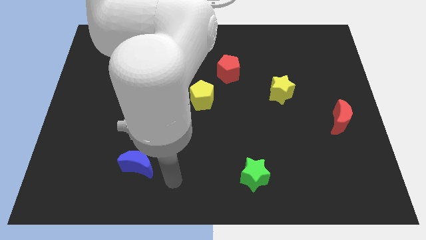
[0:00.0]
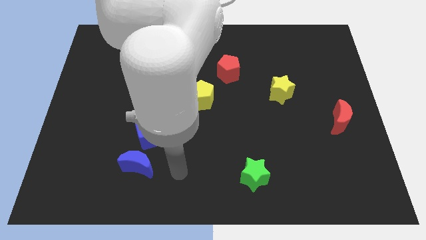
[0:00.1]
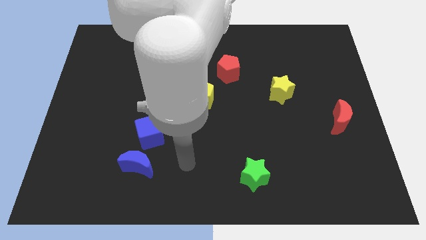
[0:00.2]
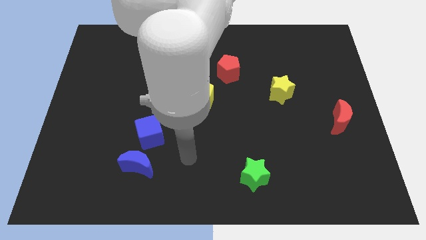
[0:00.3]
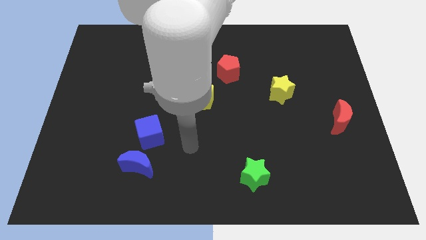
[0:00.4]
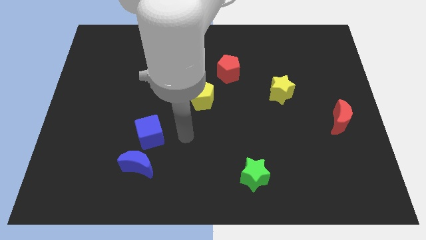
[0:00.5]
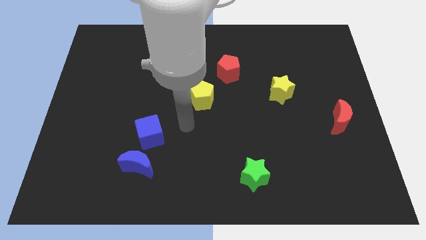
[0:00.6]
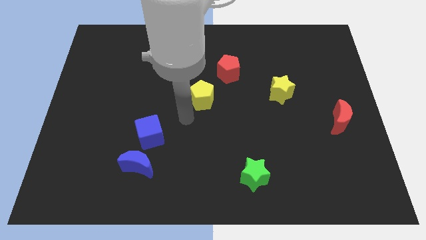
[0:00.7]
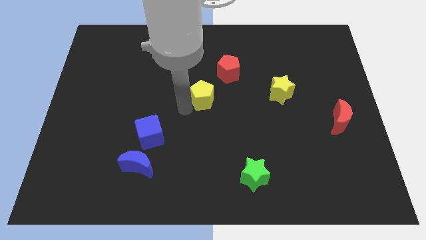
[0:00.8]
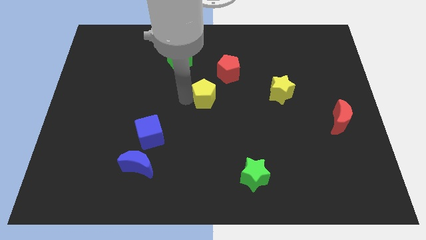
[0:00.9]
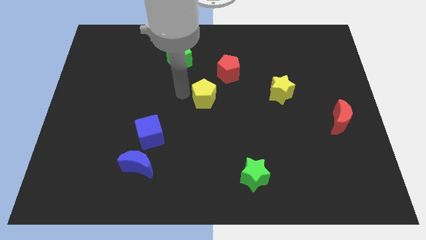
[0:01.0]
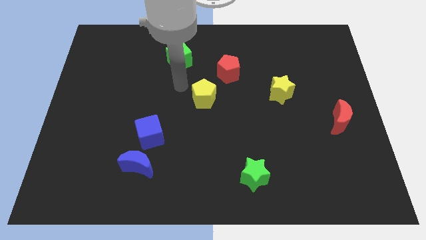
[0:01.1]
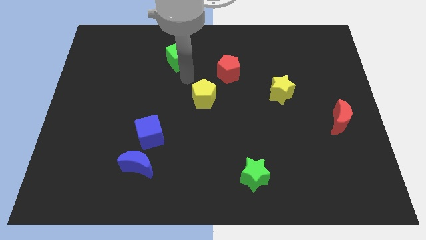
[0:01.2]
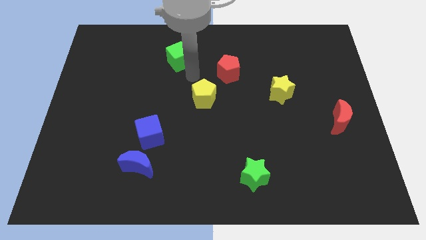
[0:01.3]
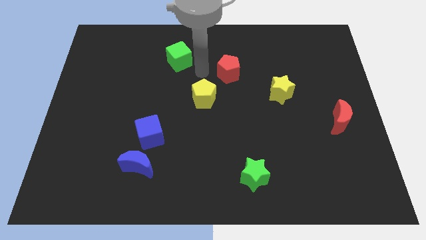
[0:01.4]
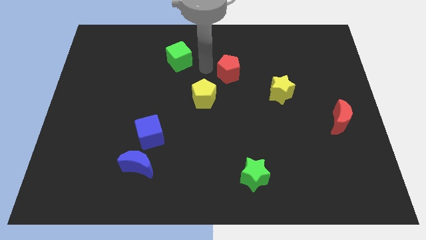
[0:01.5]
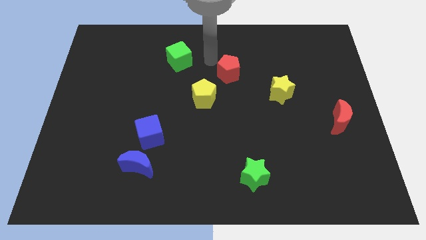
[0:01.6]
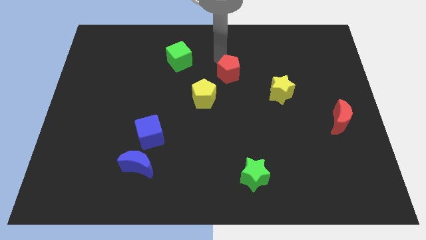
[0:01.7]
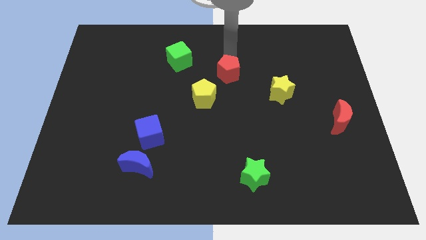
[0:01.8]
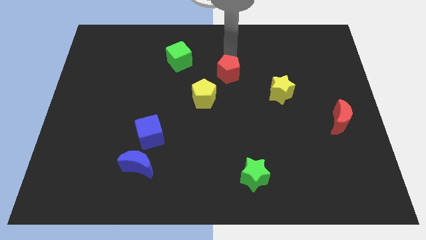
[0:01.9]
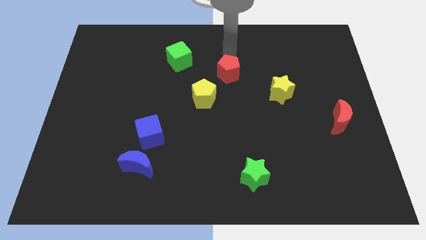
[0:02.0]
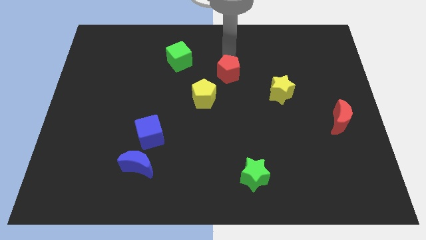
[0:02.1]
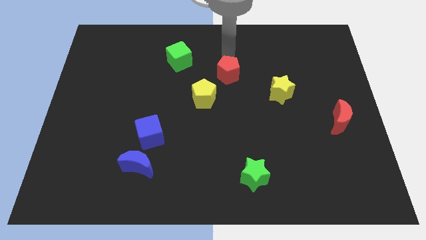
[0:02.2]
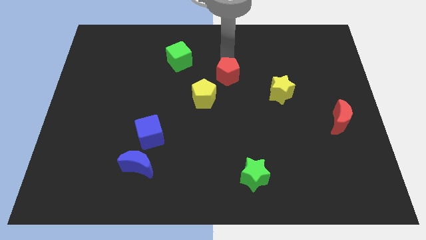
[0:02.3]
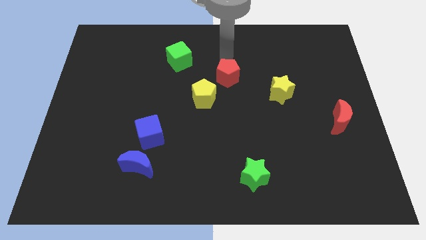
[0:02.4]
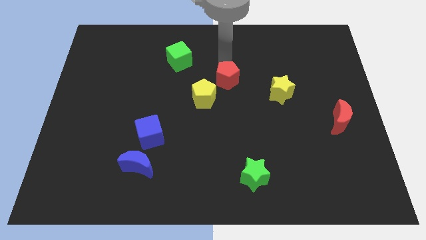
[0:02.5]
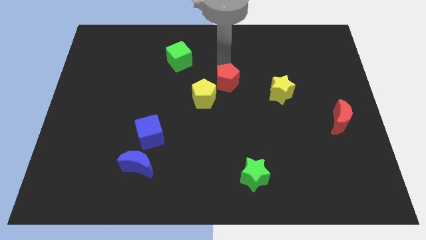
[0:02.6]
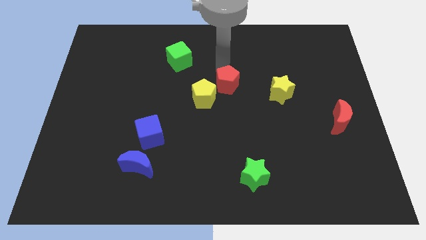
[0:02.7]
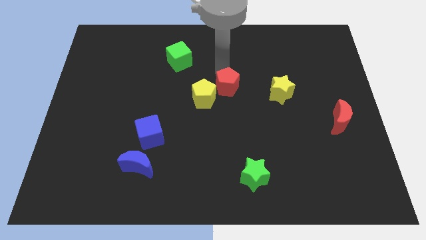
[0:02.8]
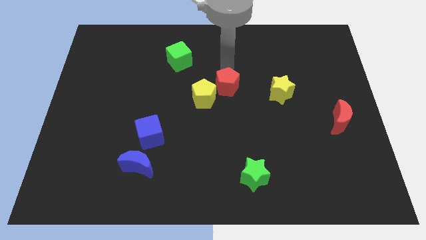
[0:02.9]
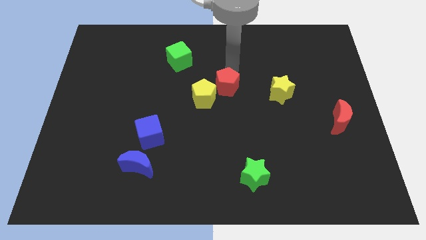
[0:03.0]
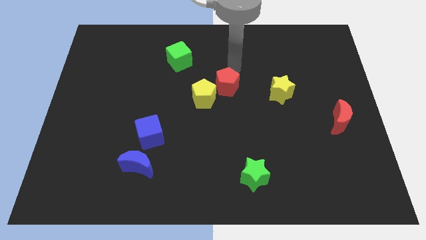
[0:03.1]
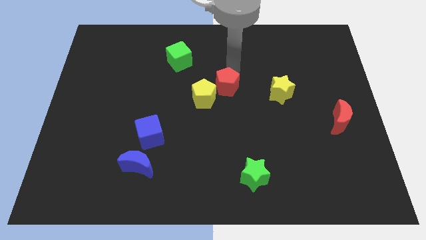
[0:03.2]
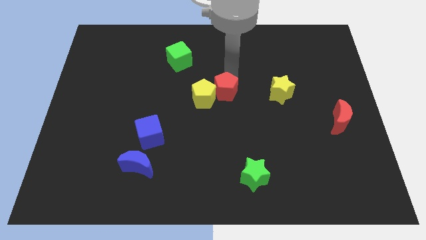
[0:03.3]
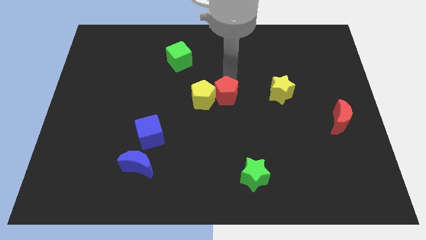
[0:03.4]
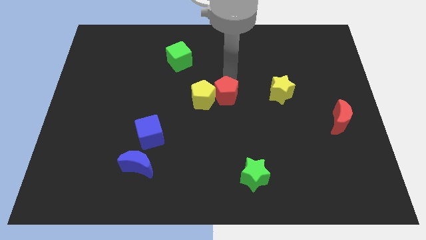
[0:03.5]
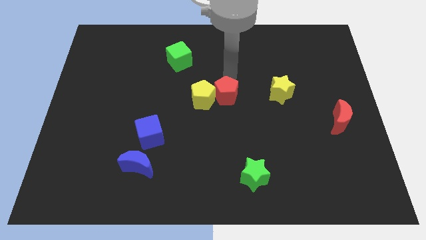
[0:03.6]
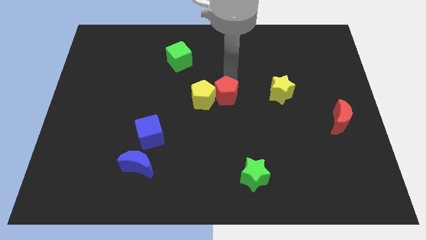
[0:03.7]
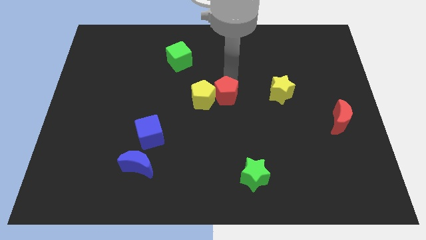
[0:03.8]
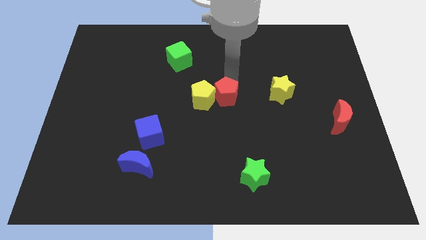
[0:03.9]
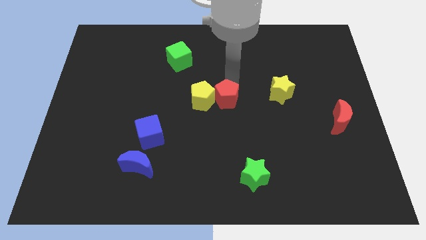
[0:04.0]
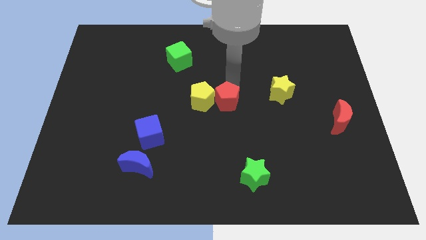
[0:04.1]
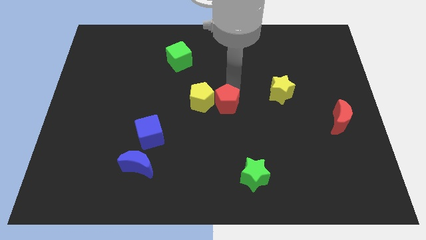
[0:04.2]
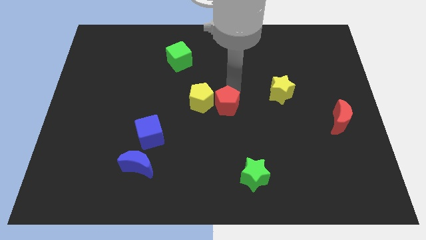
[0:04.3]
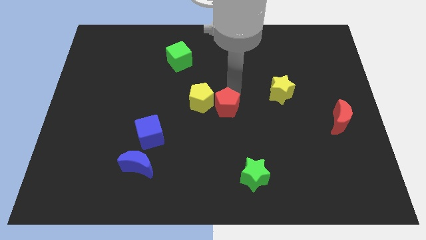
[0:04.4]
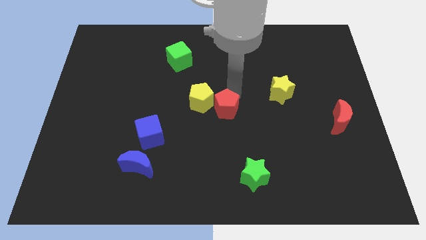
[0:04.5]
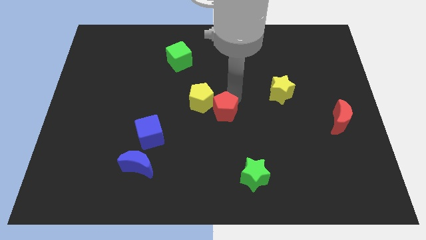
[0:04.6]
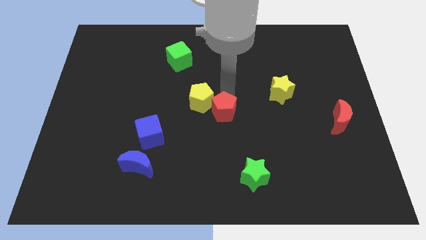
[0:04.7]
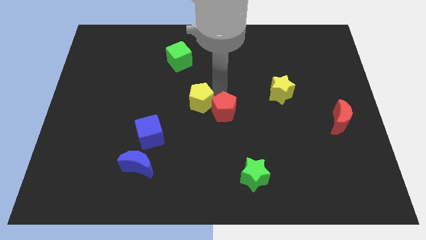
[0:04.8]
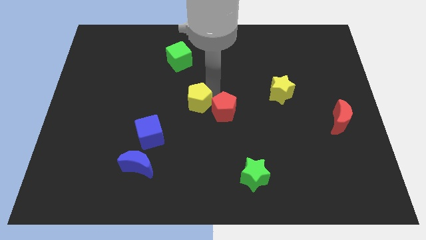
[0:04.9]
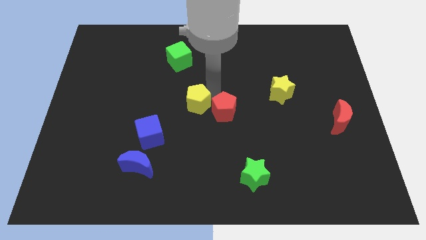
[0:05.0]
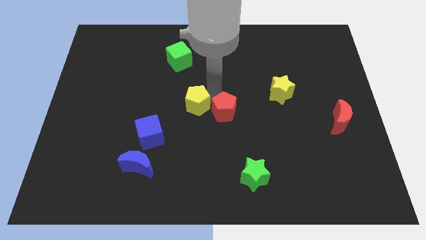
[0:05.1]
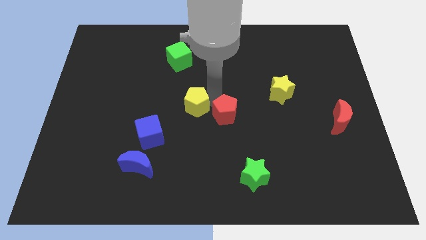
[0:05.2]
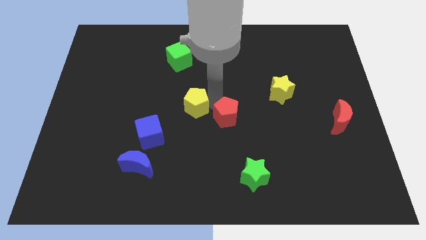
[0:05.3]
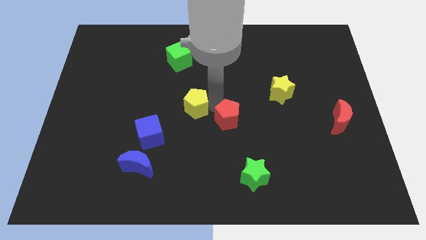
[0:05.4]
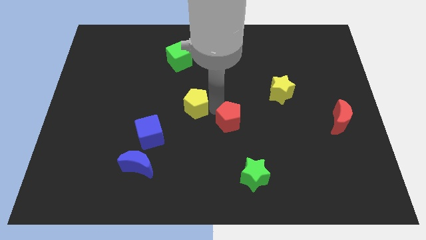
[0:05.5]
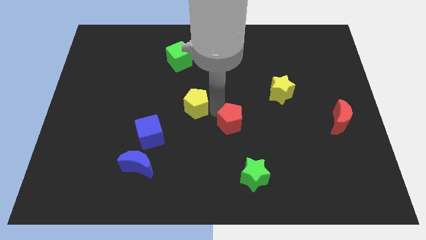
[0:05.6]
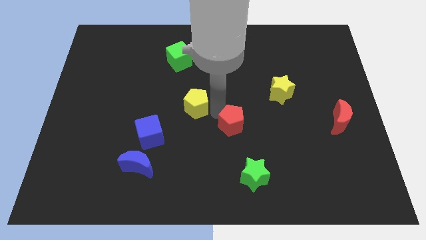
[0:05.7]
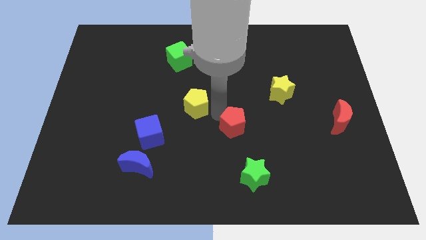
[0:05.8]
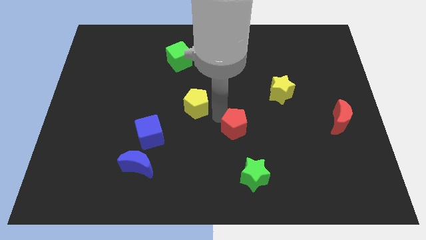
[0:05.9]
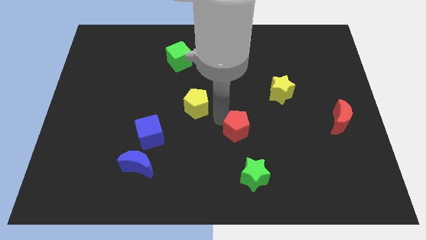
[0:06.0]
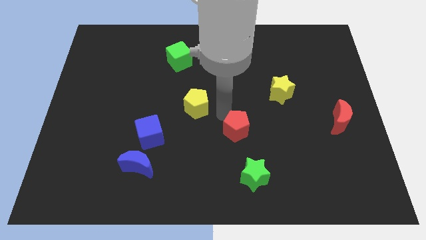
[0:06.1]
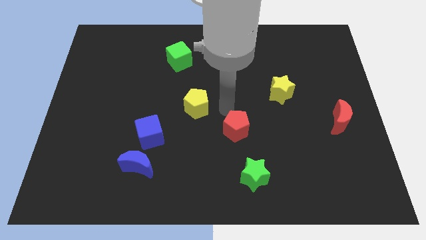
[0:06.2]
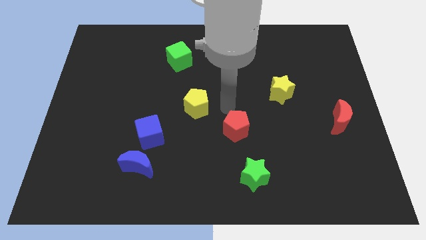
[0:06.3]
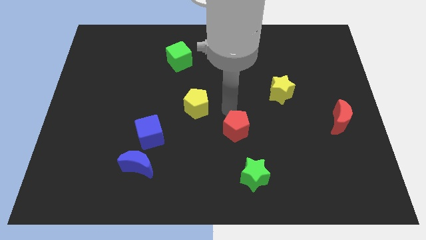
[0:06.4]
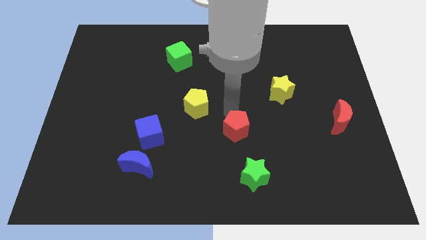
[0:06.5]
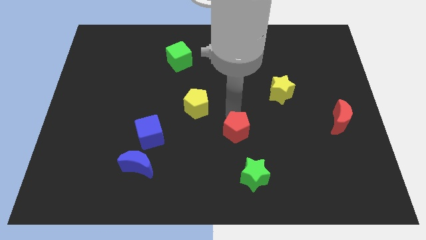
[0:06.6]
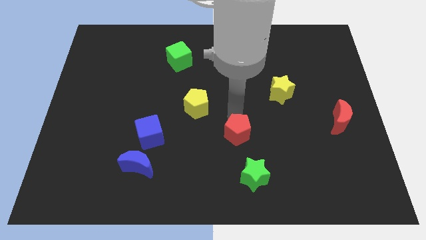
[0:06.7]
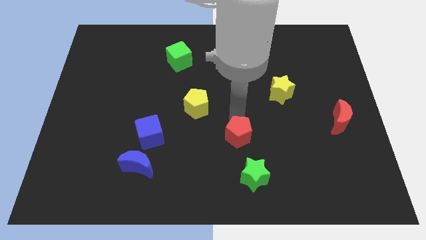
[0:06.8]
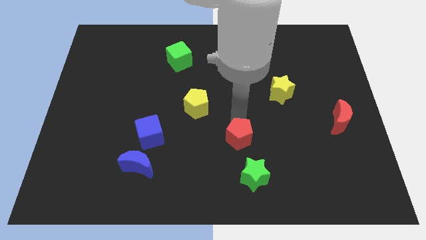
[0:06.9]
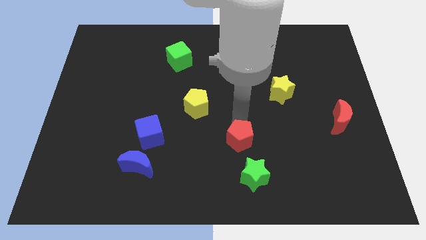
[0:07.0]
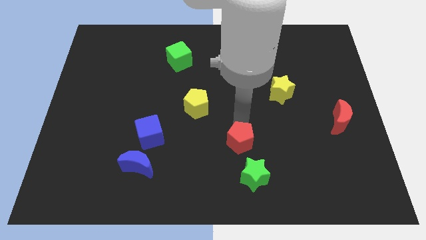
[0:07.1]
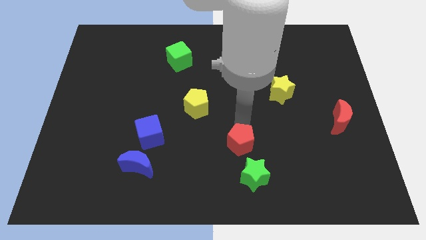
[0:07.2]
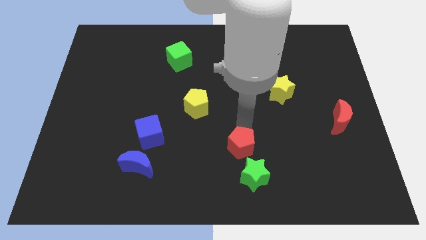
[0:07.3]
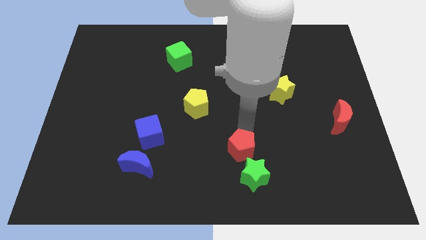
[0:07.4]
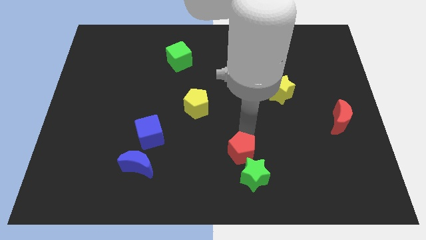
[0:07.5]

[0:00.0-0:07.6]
put the red pentagon to the green star

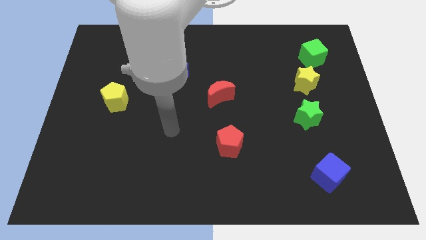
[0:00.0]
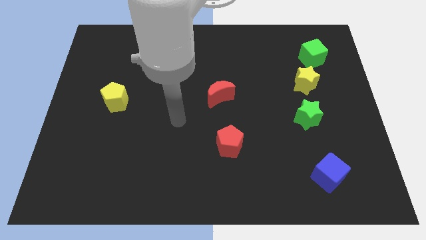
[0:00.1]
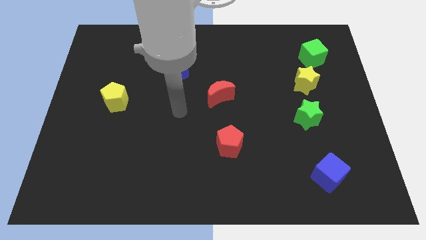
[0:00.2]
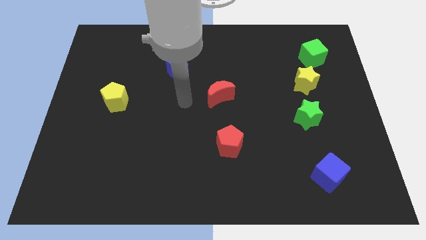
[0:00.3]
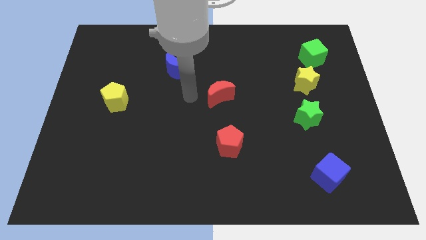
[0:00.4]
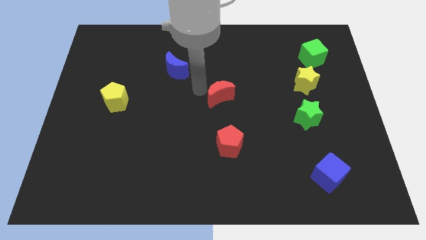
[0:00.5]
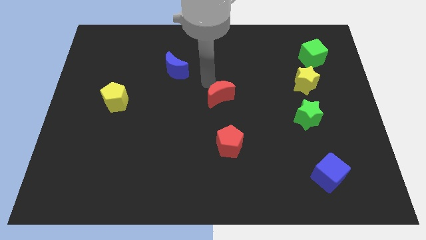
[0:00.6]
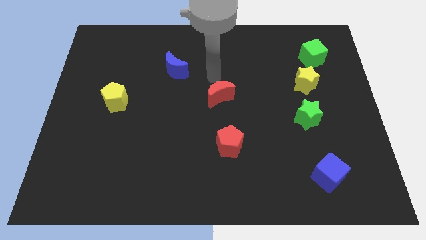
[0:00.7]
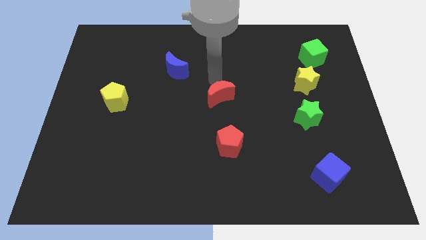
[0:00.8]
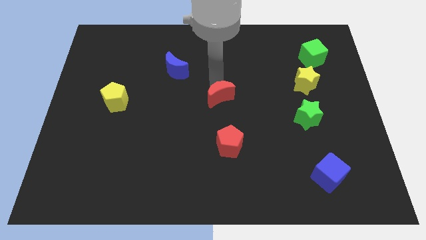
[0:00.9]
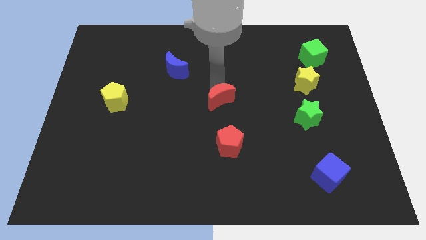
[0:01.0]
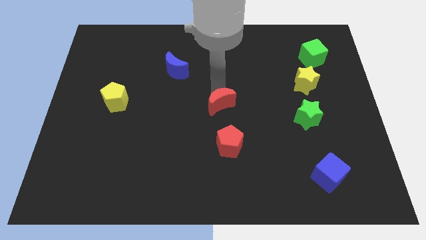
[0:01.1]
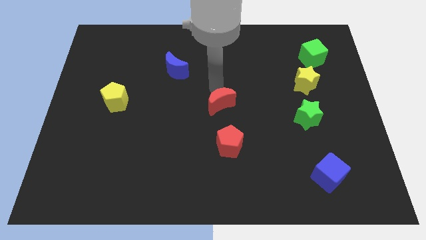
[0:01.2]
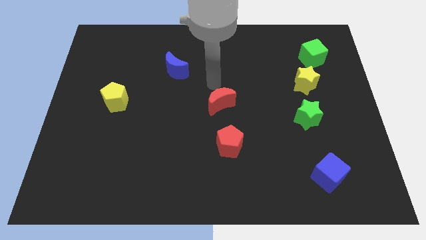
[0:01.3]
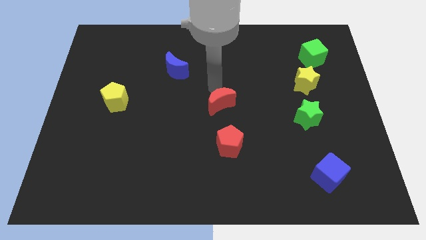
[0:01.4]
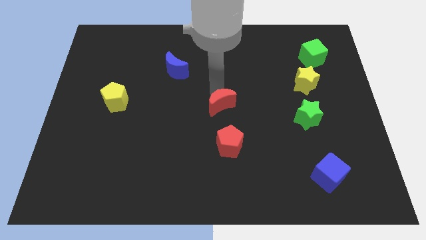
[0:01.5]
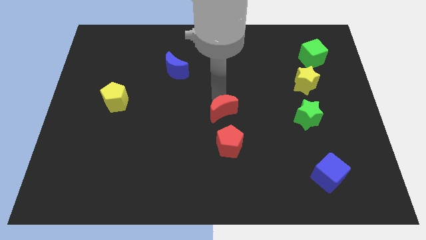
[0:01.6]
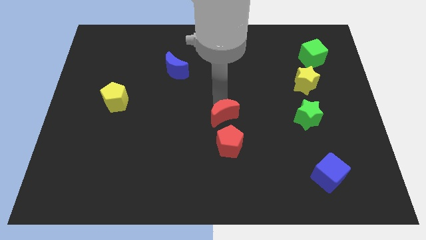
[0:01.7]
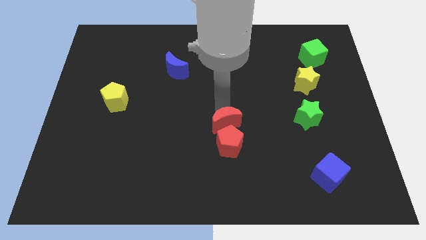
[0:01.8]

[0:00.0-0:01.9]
slide the red moon close to the red pentagon
